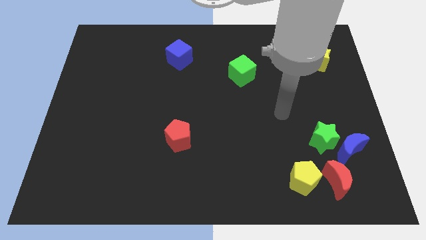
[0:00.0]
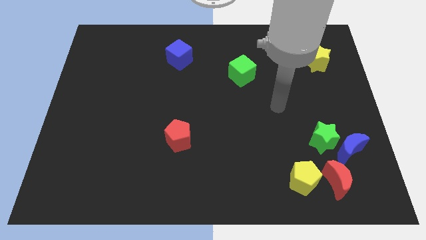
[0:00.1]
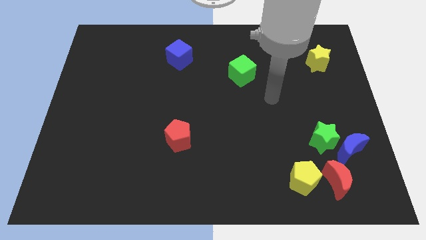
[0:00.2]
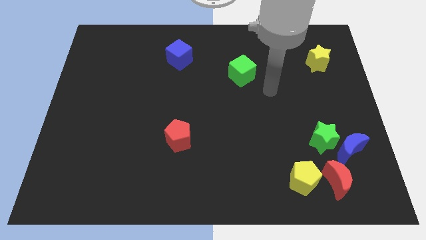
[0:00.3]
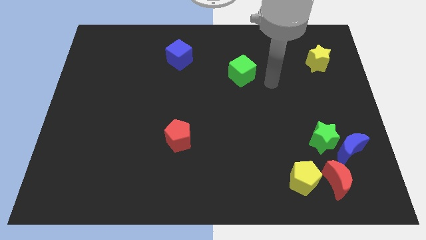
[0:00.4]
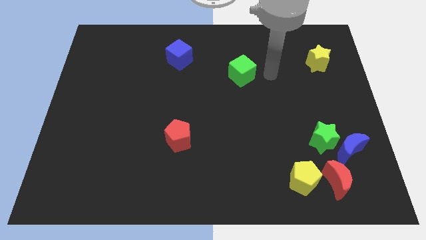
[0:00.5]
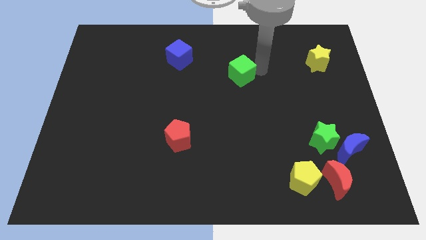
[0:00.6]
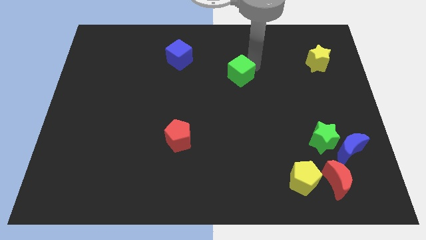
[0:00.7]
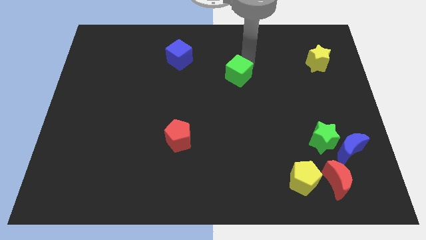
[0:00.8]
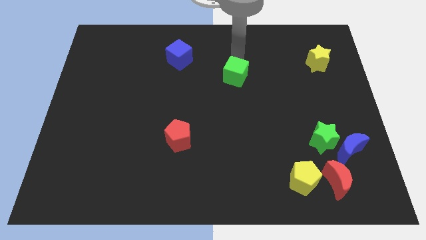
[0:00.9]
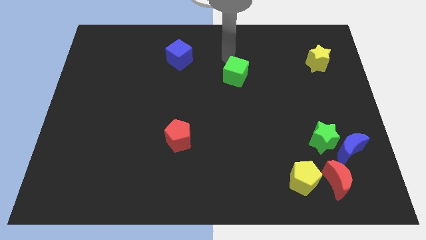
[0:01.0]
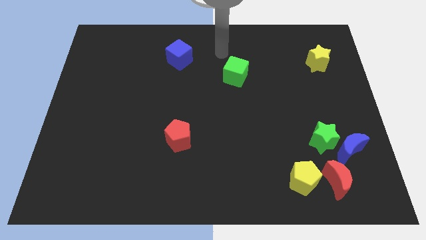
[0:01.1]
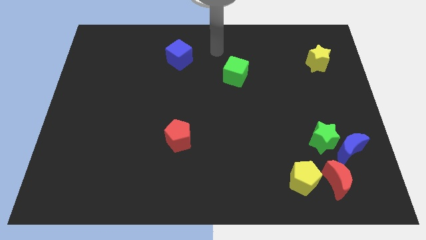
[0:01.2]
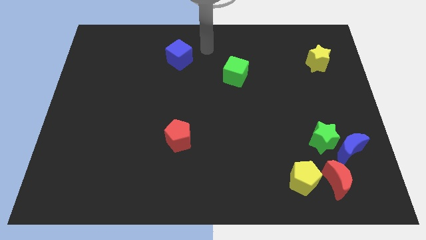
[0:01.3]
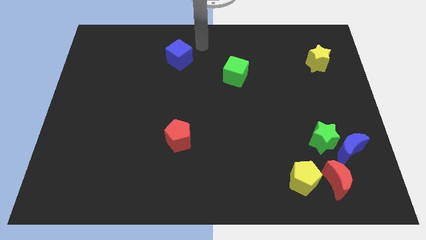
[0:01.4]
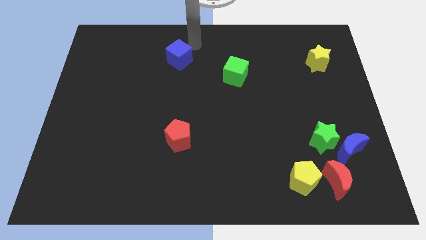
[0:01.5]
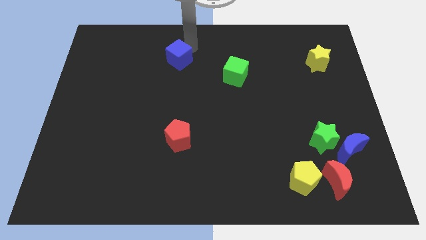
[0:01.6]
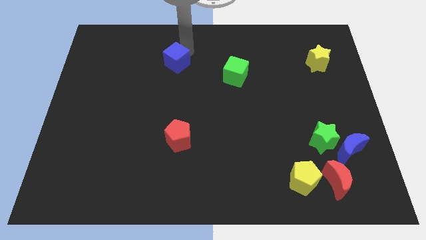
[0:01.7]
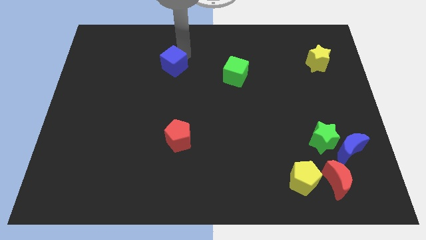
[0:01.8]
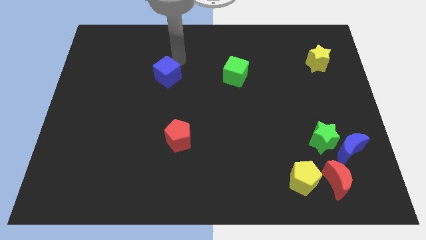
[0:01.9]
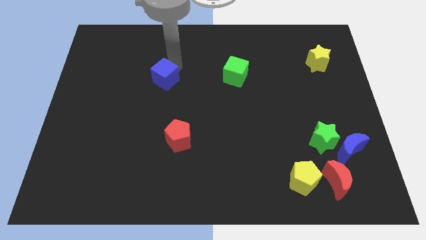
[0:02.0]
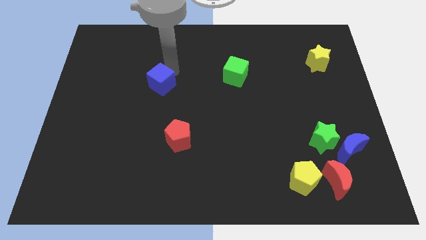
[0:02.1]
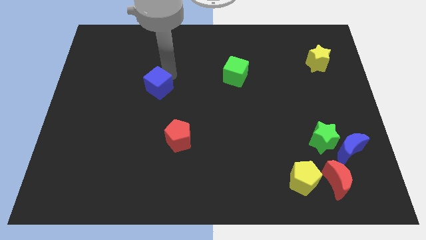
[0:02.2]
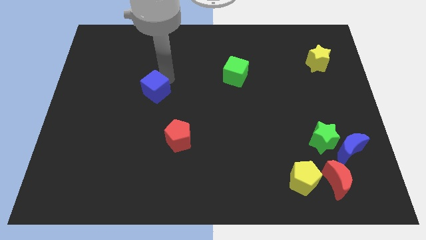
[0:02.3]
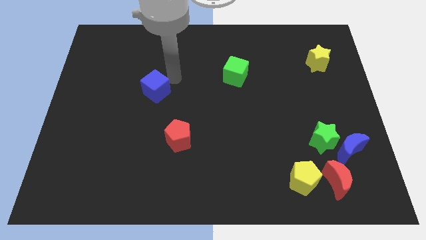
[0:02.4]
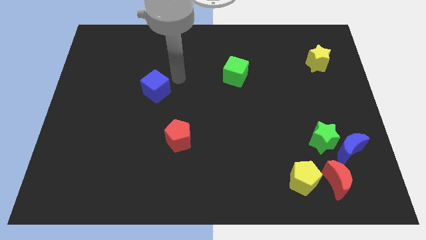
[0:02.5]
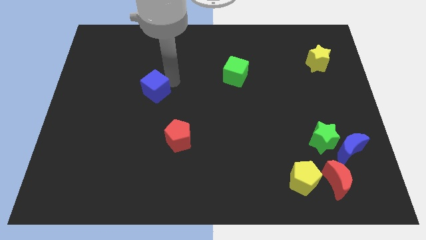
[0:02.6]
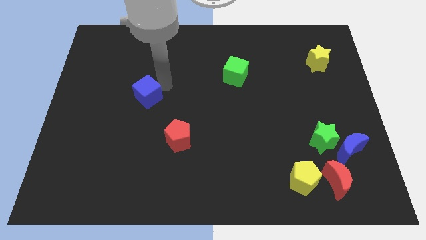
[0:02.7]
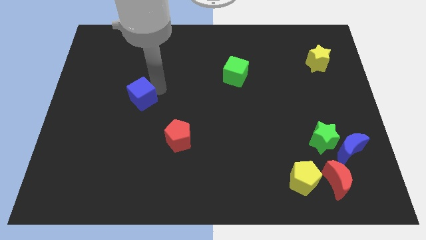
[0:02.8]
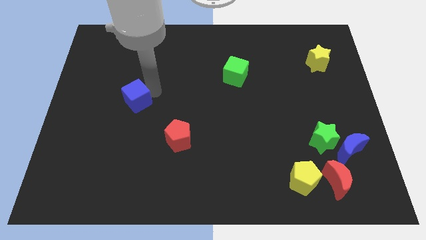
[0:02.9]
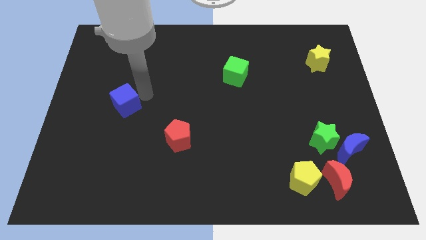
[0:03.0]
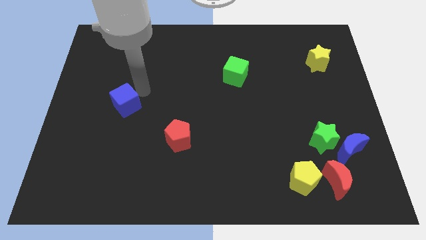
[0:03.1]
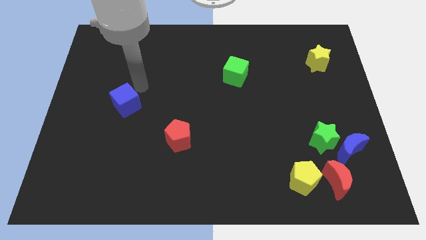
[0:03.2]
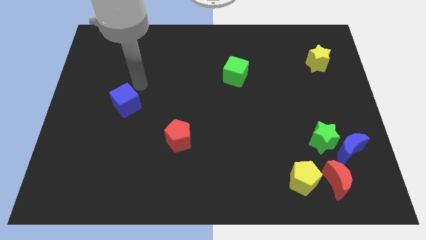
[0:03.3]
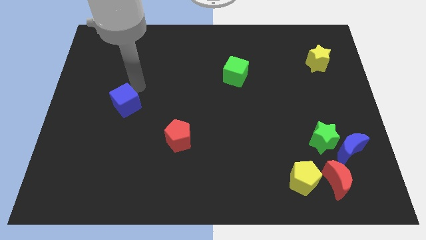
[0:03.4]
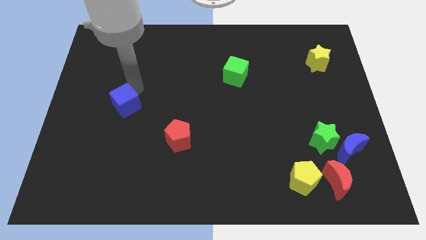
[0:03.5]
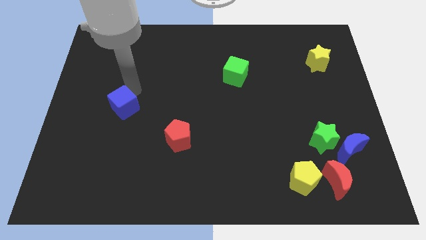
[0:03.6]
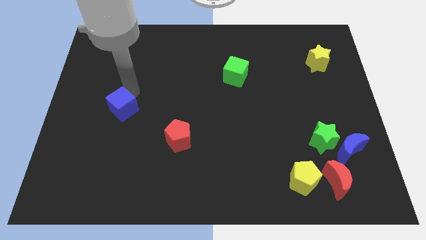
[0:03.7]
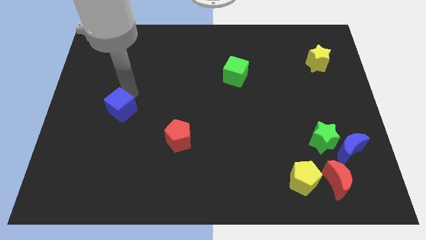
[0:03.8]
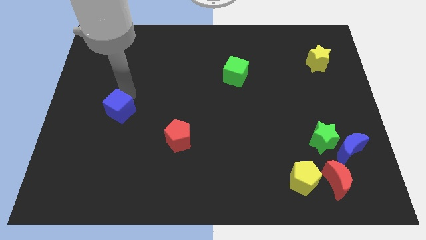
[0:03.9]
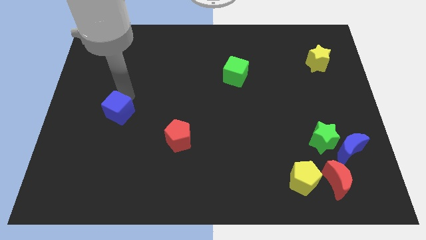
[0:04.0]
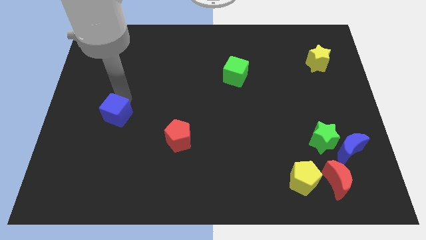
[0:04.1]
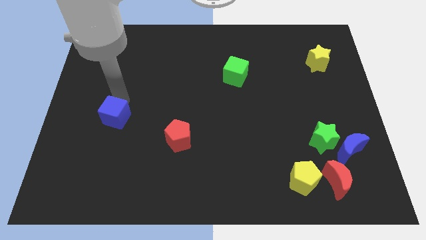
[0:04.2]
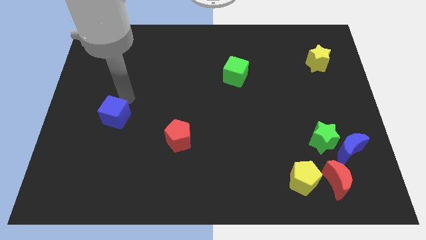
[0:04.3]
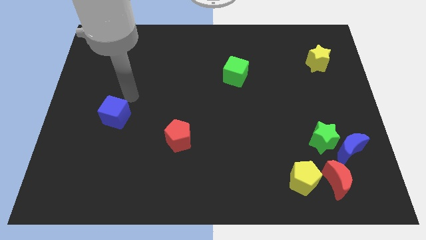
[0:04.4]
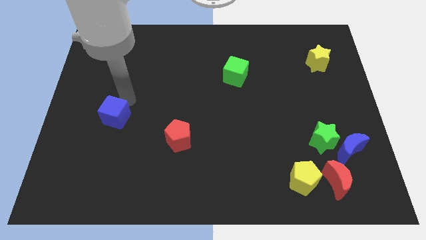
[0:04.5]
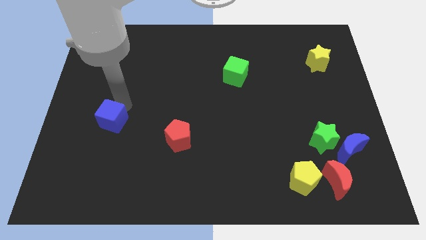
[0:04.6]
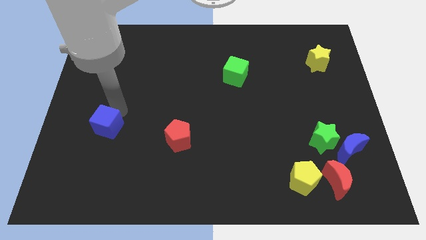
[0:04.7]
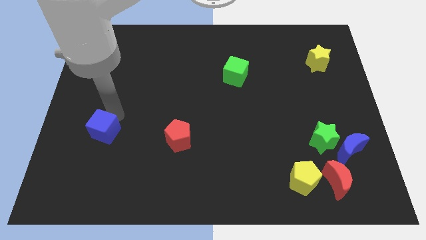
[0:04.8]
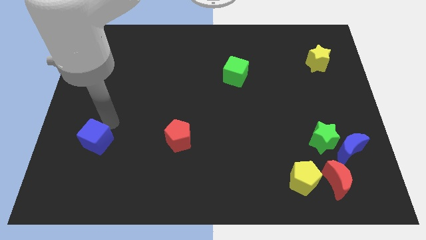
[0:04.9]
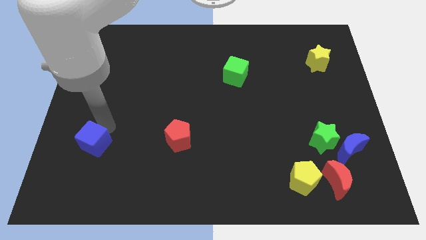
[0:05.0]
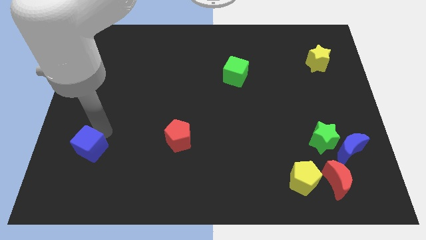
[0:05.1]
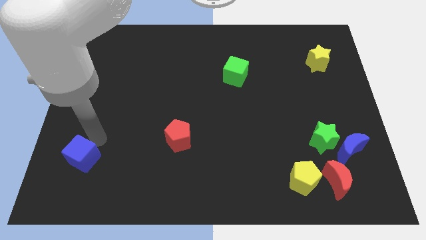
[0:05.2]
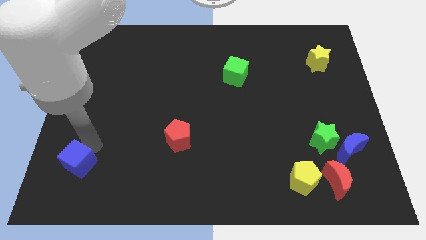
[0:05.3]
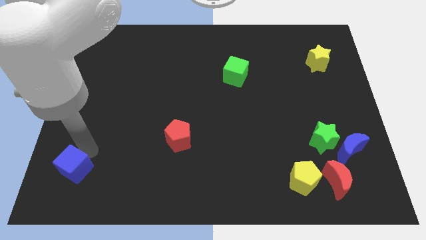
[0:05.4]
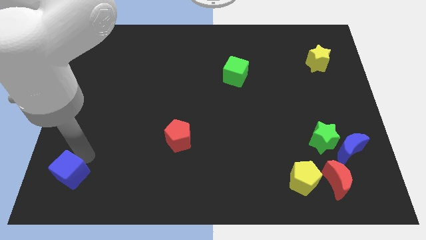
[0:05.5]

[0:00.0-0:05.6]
slide the blue cube to the bottom left corner

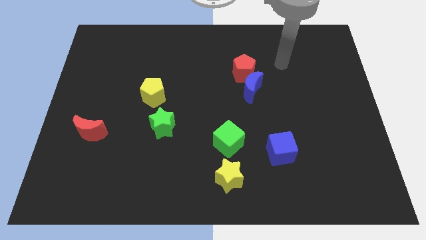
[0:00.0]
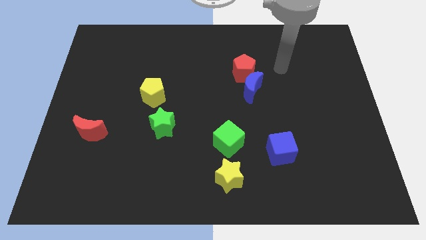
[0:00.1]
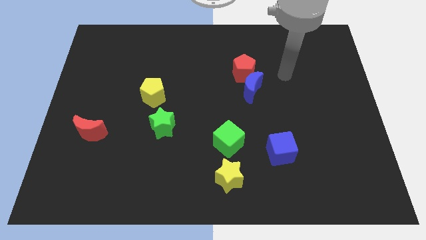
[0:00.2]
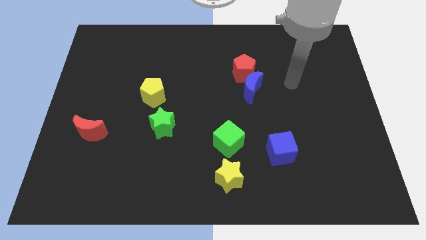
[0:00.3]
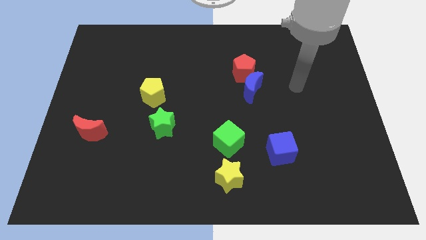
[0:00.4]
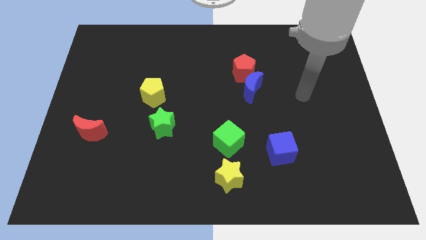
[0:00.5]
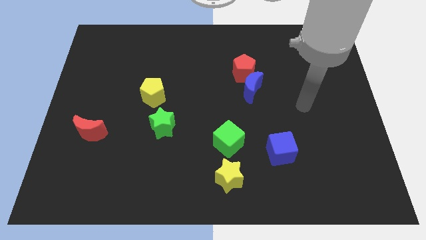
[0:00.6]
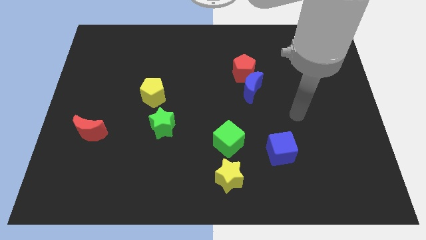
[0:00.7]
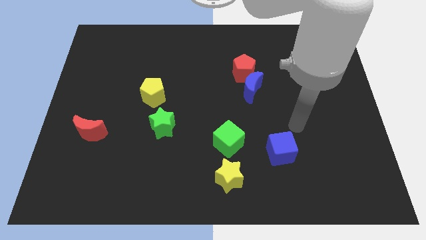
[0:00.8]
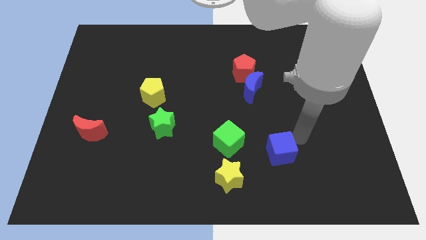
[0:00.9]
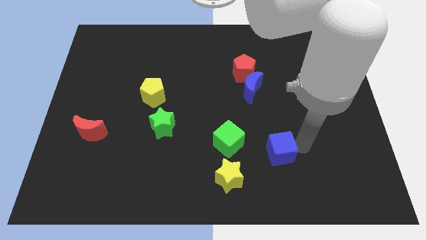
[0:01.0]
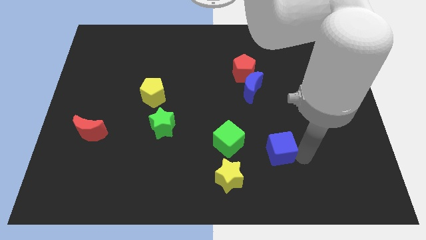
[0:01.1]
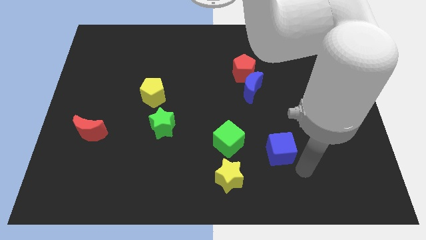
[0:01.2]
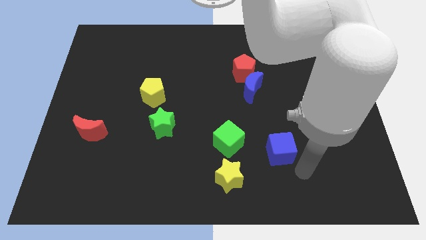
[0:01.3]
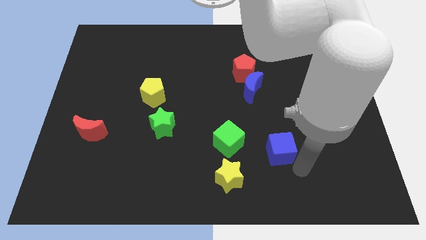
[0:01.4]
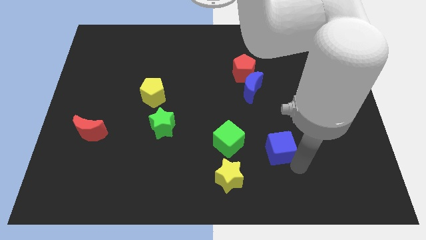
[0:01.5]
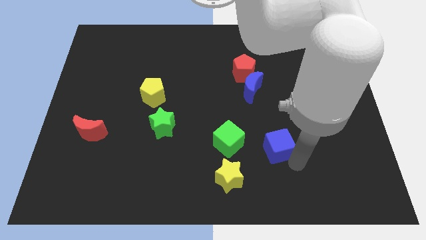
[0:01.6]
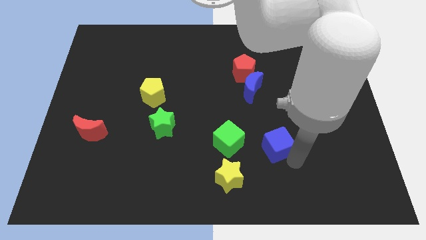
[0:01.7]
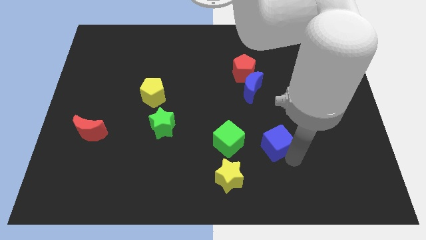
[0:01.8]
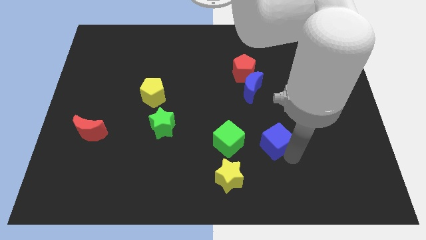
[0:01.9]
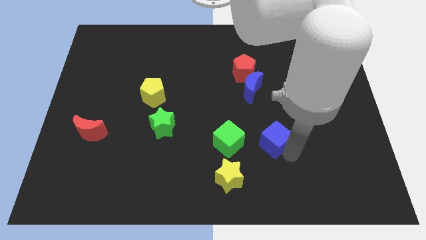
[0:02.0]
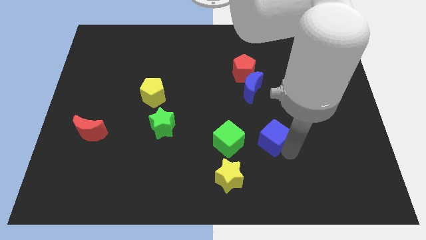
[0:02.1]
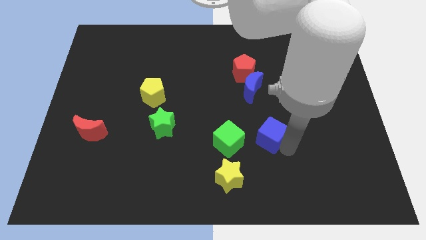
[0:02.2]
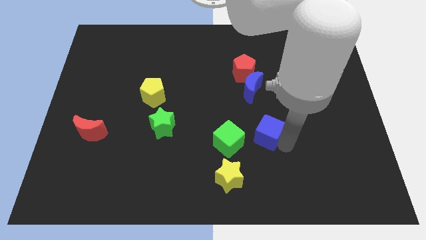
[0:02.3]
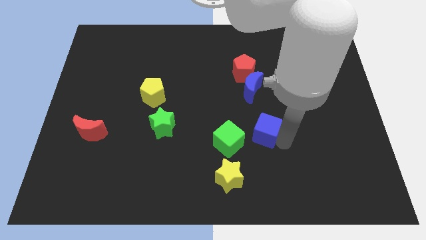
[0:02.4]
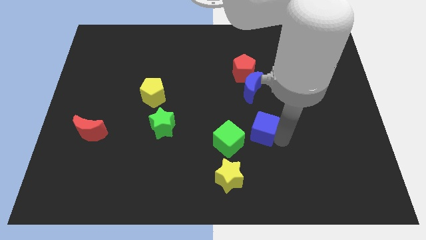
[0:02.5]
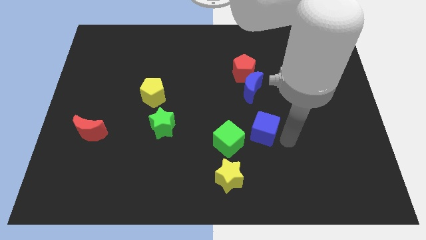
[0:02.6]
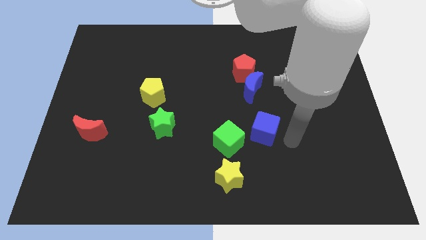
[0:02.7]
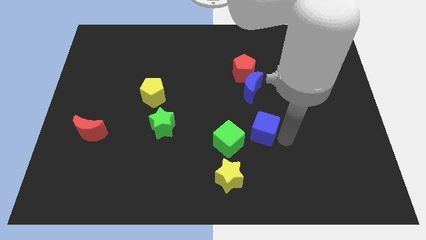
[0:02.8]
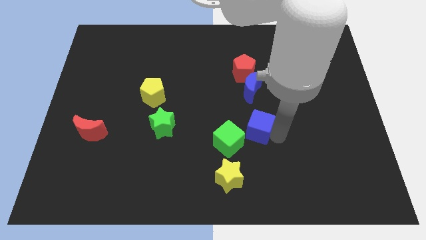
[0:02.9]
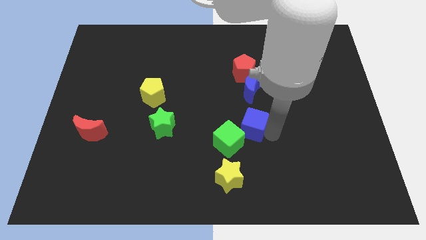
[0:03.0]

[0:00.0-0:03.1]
move the blue cube to the middle of the board
